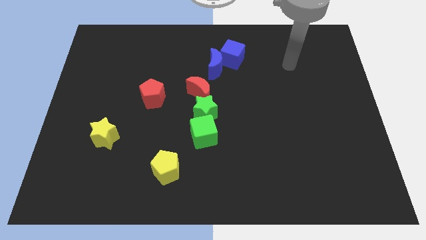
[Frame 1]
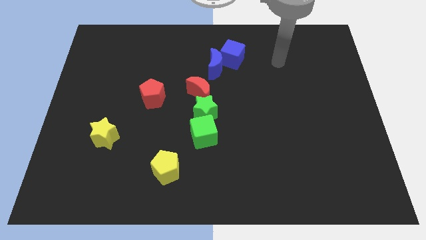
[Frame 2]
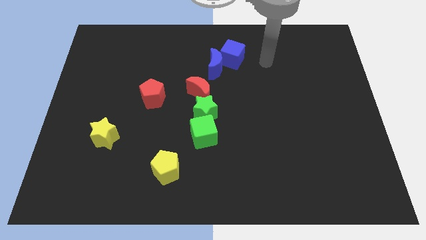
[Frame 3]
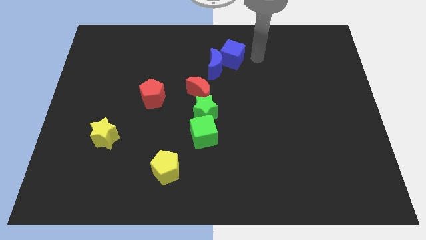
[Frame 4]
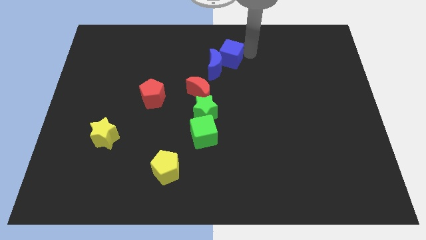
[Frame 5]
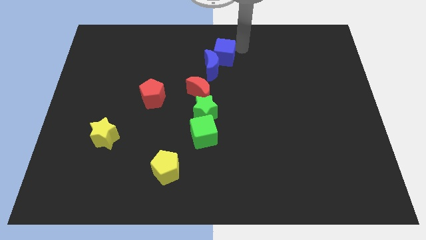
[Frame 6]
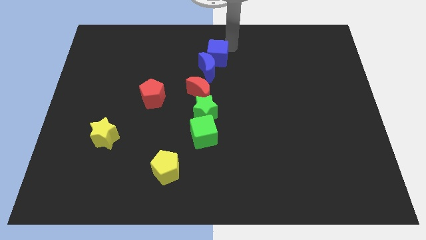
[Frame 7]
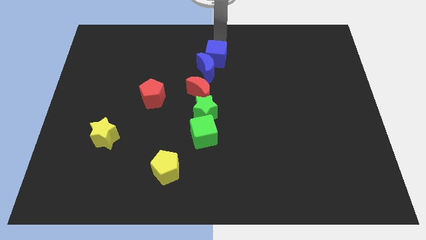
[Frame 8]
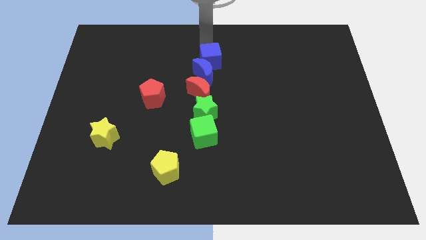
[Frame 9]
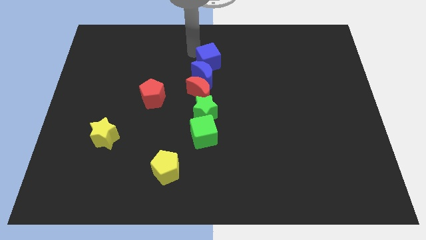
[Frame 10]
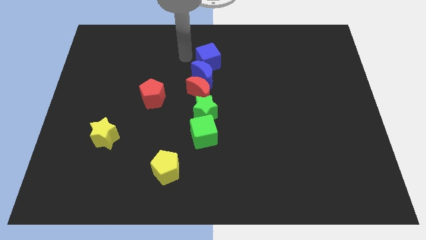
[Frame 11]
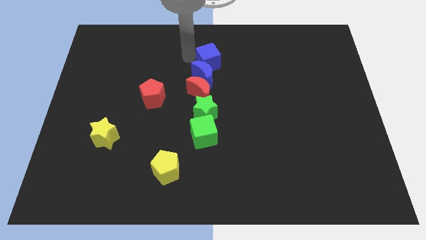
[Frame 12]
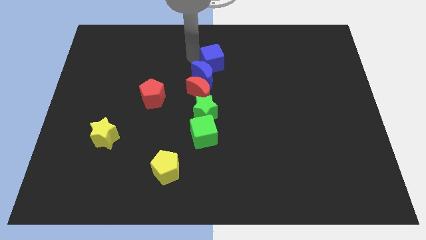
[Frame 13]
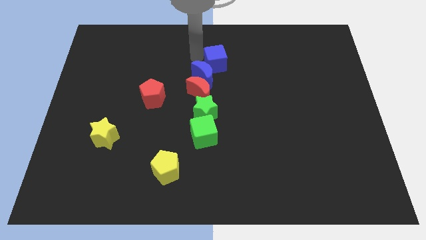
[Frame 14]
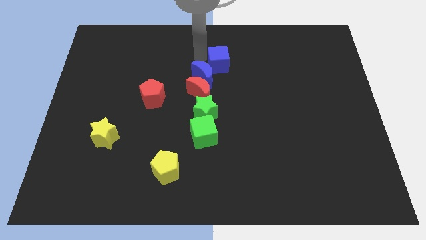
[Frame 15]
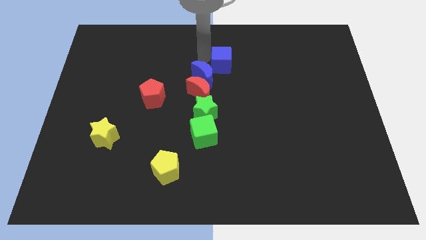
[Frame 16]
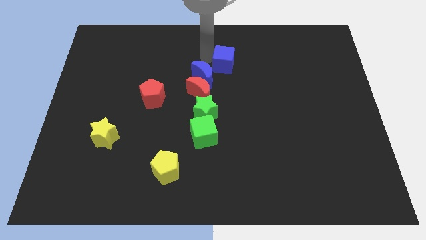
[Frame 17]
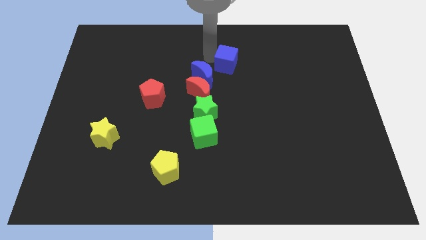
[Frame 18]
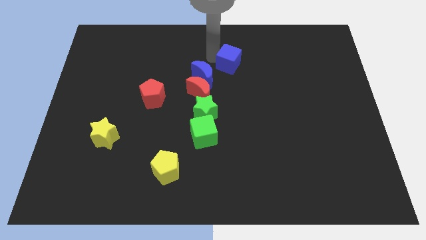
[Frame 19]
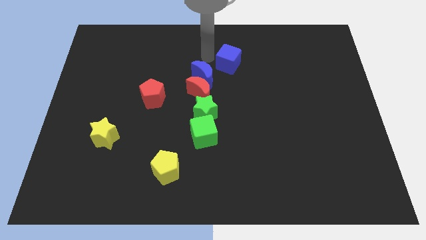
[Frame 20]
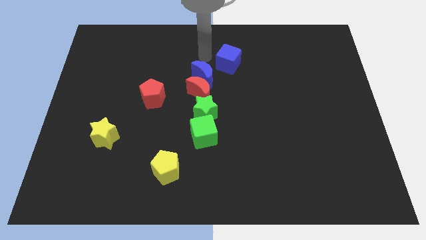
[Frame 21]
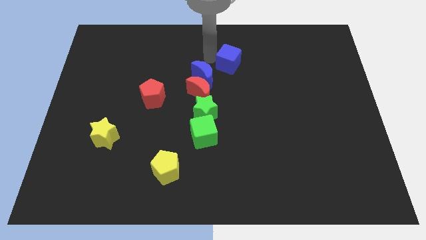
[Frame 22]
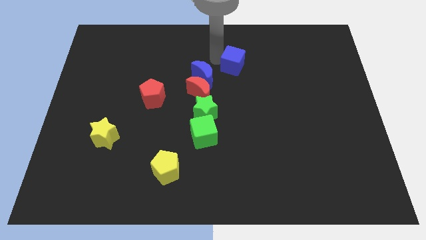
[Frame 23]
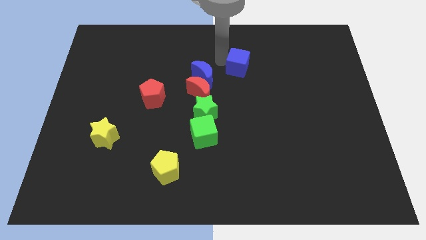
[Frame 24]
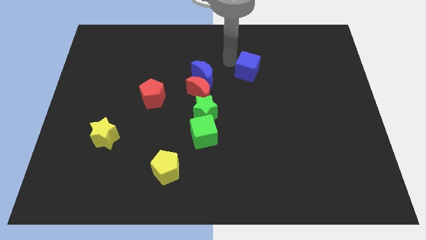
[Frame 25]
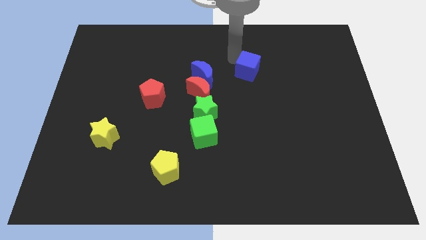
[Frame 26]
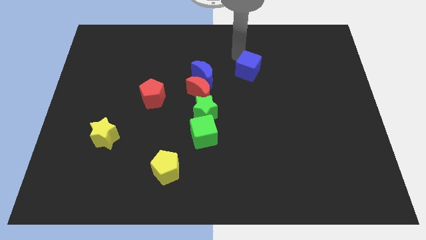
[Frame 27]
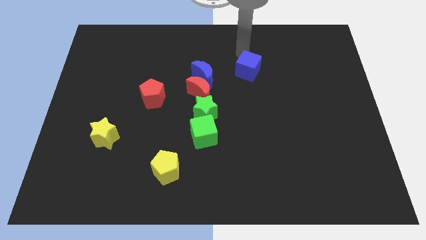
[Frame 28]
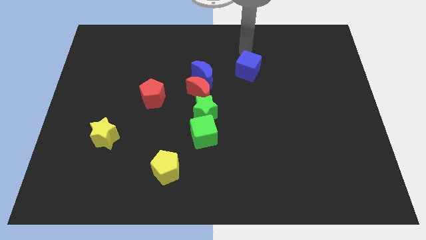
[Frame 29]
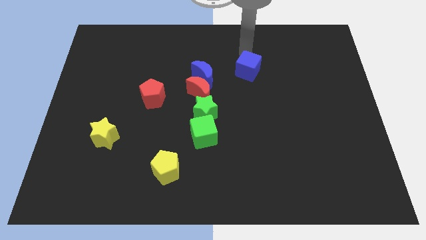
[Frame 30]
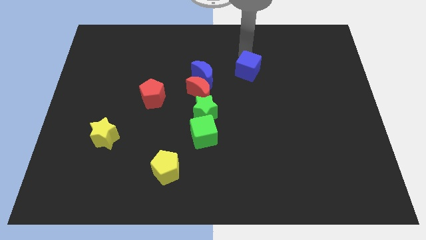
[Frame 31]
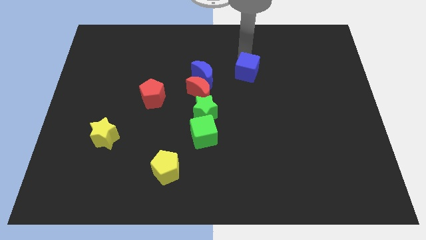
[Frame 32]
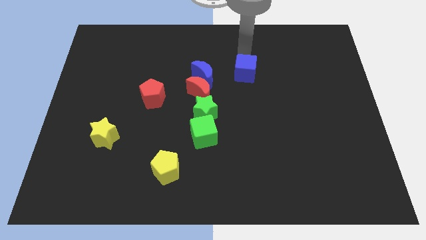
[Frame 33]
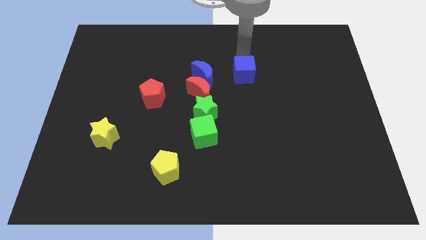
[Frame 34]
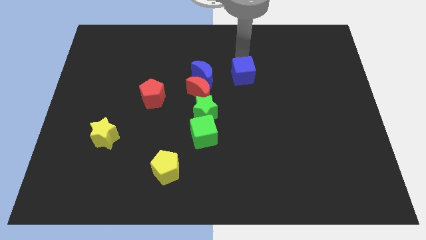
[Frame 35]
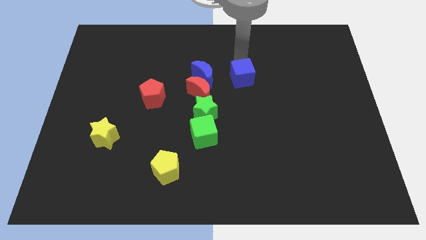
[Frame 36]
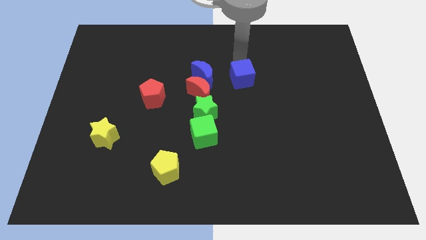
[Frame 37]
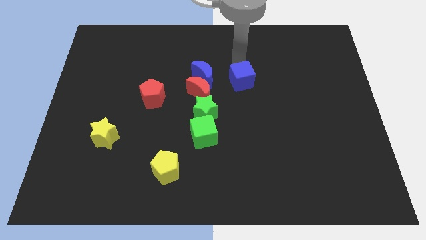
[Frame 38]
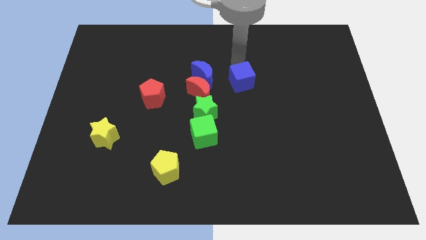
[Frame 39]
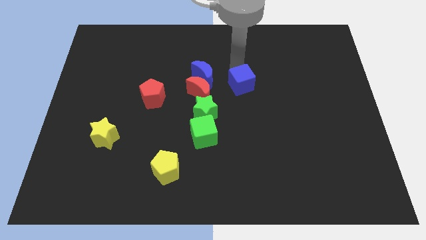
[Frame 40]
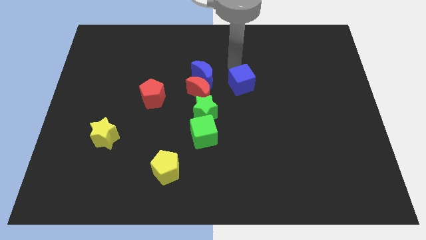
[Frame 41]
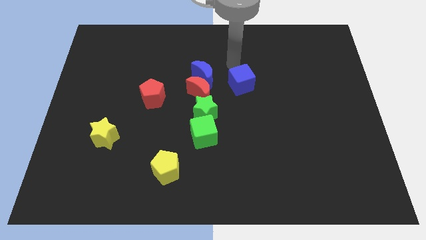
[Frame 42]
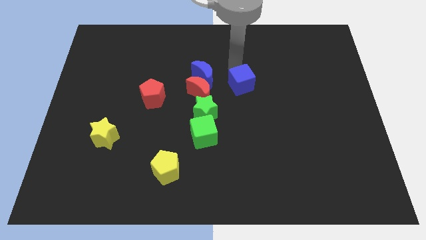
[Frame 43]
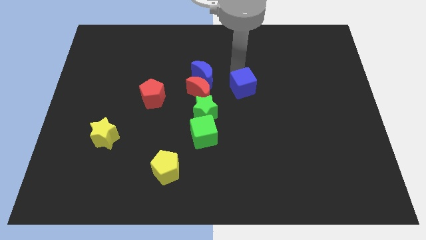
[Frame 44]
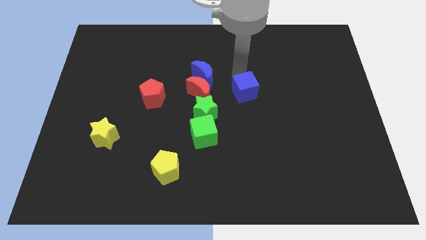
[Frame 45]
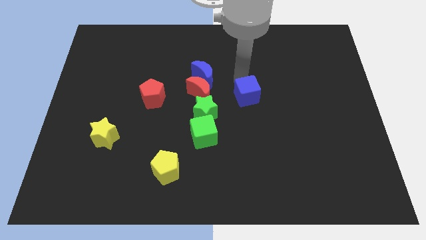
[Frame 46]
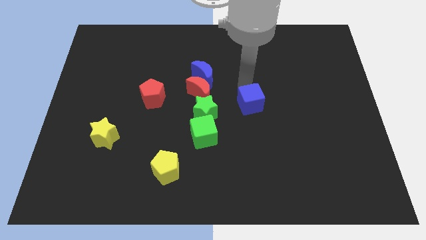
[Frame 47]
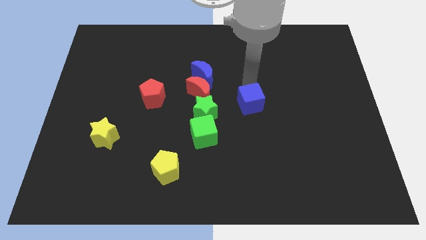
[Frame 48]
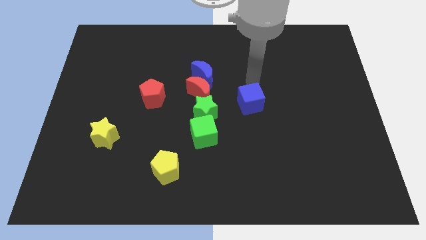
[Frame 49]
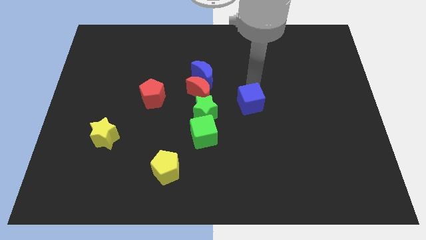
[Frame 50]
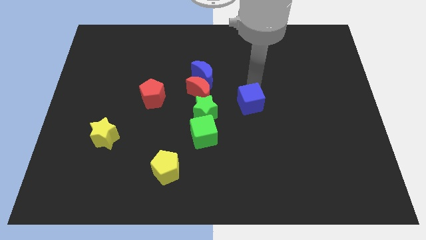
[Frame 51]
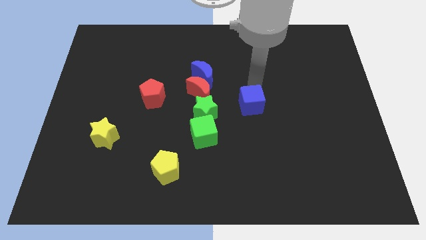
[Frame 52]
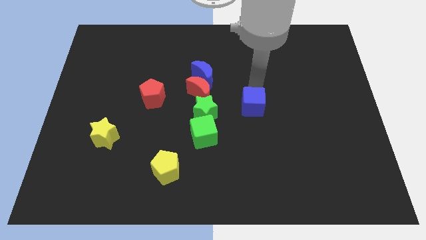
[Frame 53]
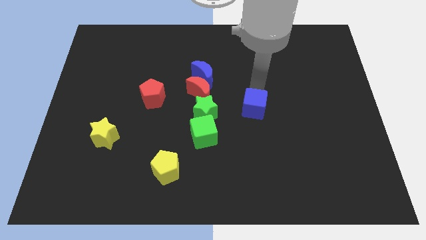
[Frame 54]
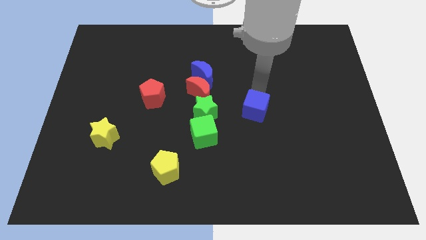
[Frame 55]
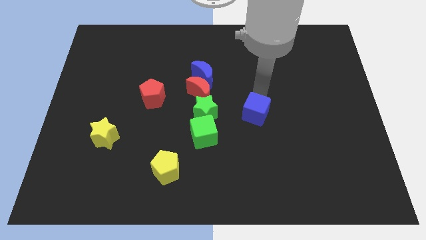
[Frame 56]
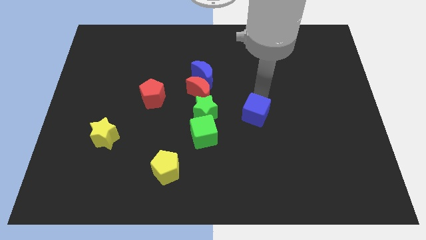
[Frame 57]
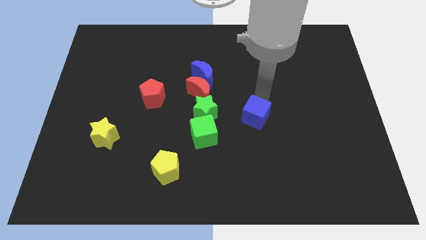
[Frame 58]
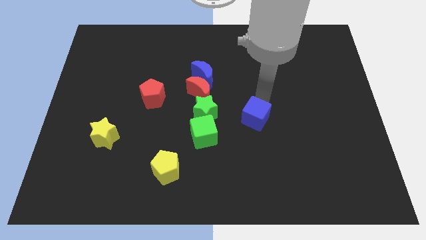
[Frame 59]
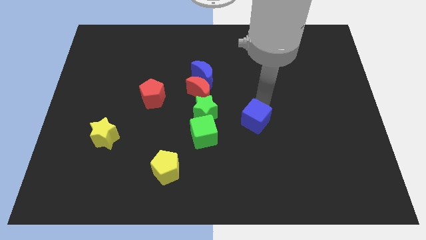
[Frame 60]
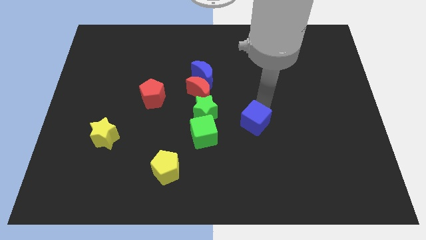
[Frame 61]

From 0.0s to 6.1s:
move the blue cube downwards

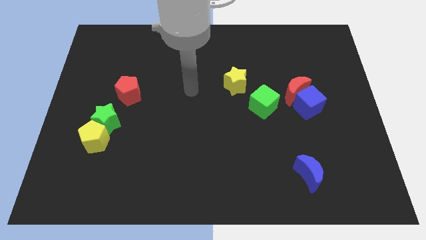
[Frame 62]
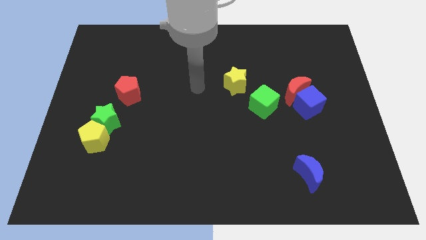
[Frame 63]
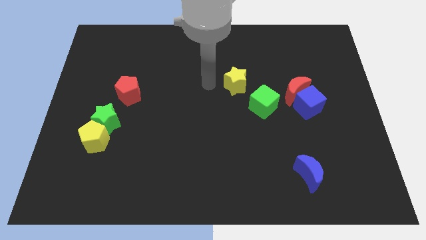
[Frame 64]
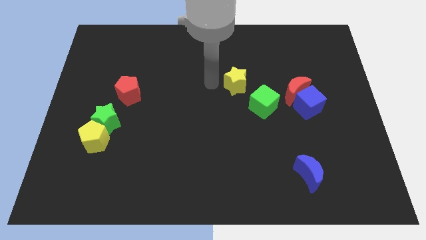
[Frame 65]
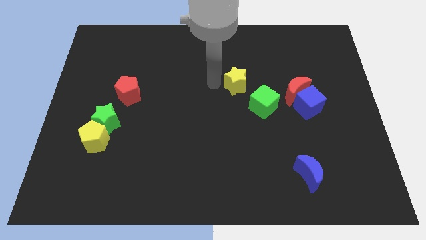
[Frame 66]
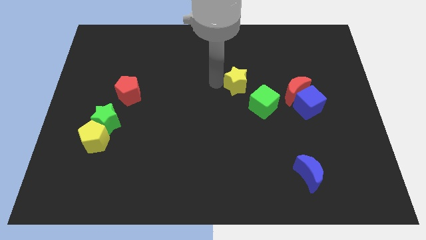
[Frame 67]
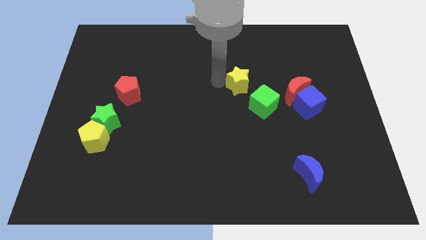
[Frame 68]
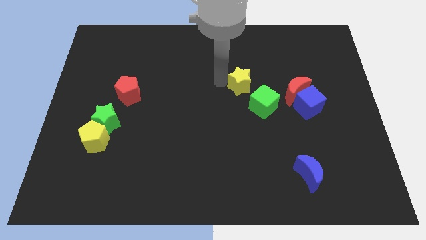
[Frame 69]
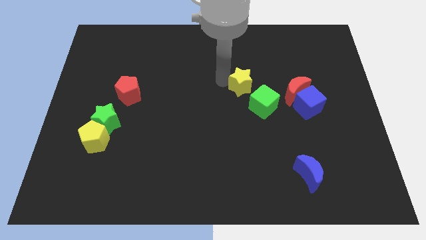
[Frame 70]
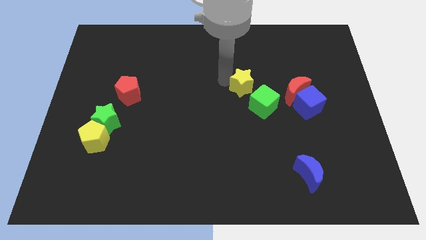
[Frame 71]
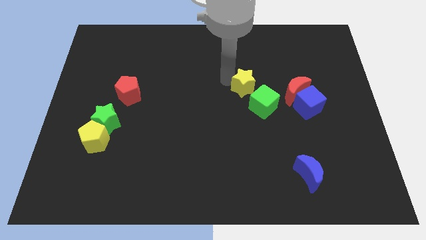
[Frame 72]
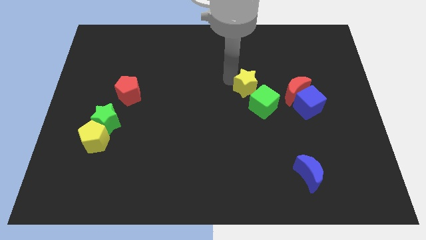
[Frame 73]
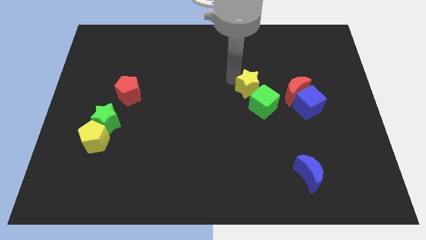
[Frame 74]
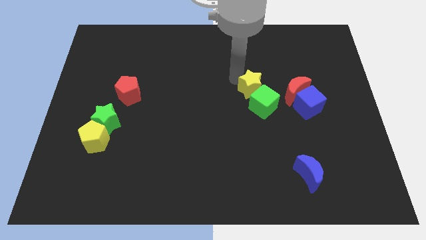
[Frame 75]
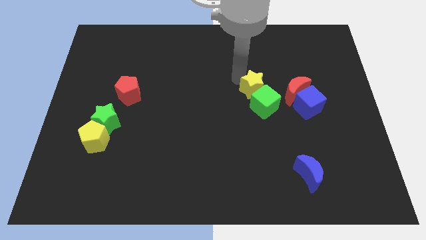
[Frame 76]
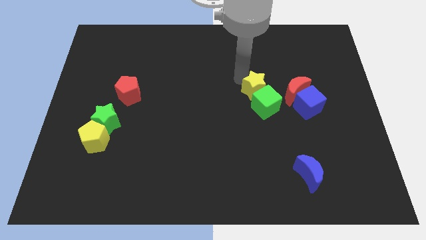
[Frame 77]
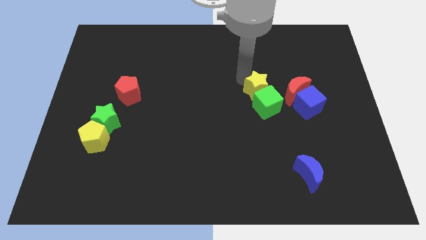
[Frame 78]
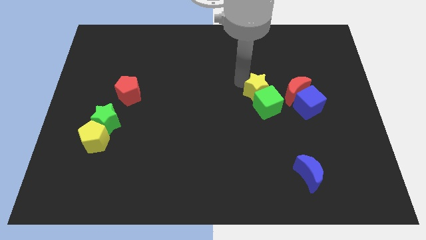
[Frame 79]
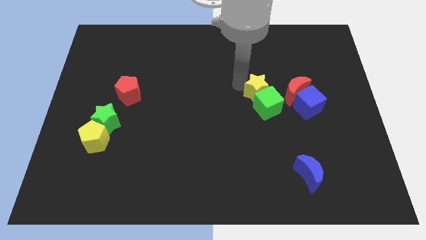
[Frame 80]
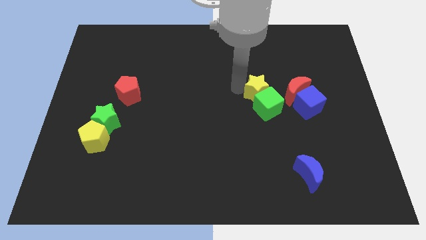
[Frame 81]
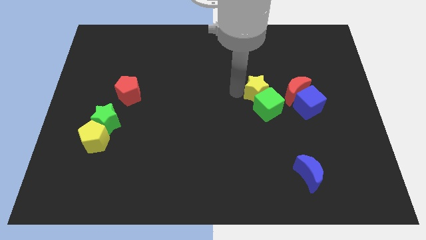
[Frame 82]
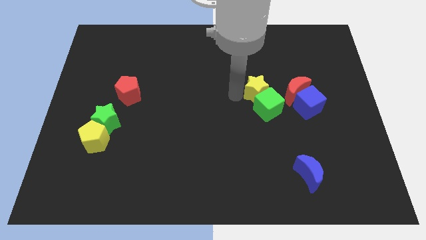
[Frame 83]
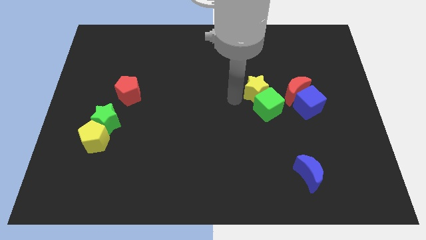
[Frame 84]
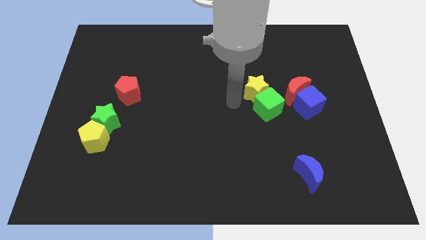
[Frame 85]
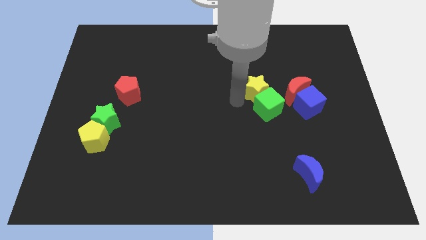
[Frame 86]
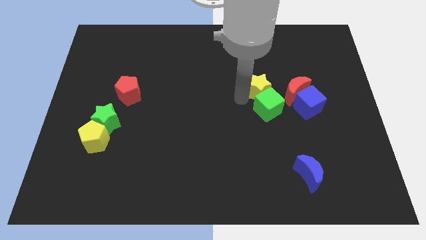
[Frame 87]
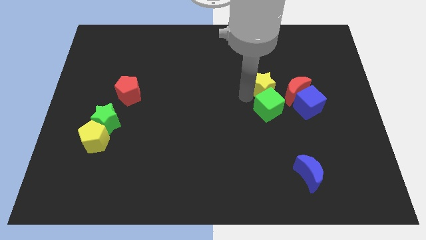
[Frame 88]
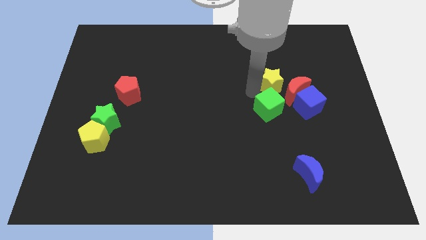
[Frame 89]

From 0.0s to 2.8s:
slide the yellow star somewhat right
